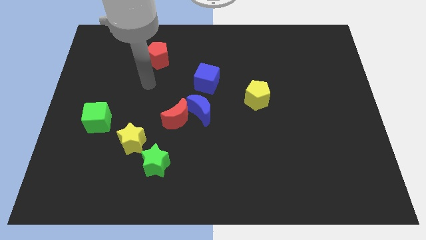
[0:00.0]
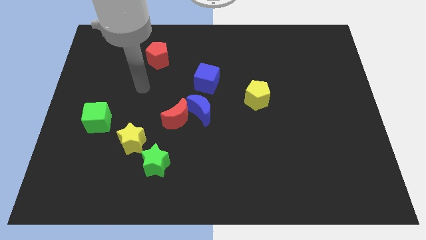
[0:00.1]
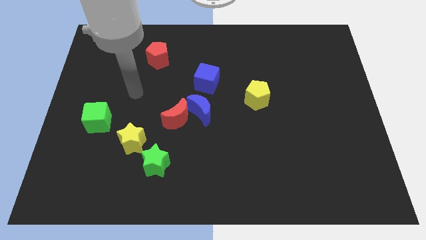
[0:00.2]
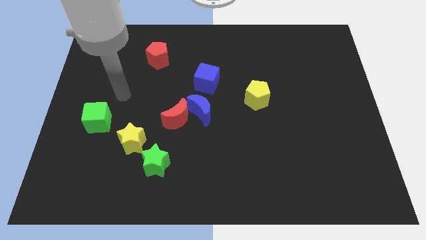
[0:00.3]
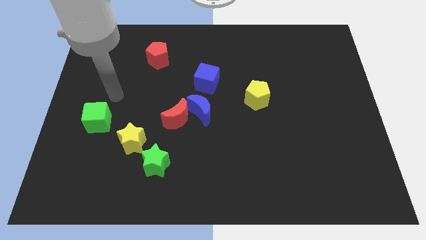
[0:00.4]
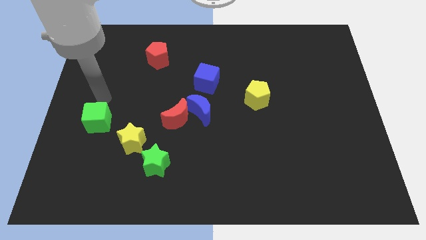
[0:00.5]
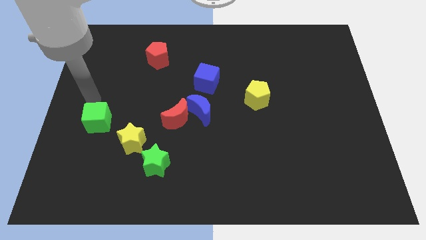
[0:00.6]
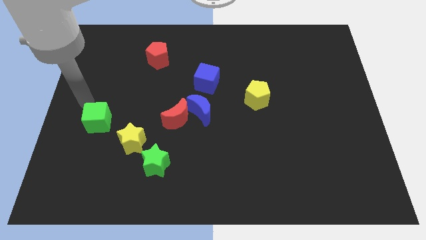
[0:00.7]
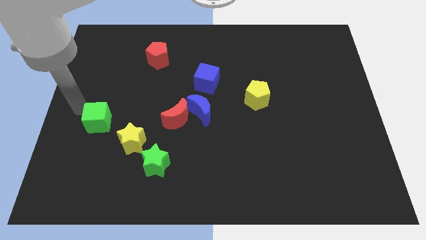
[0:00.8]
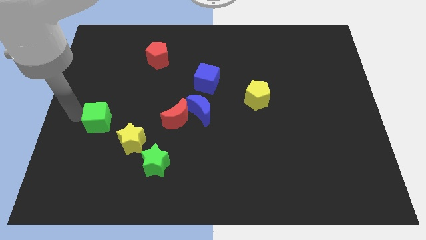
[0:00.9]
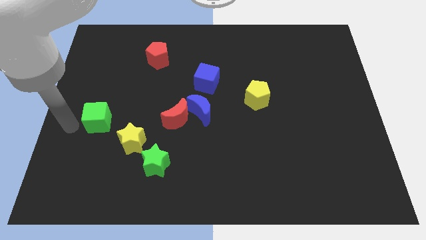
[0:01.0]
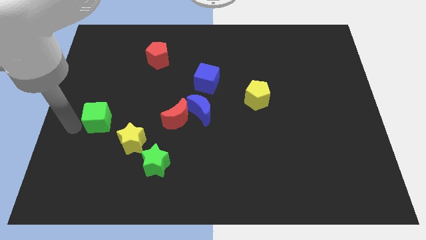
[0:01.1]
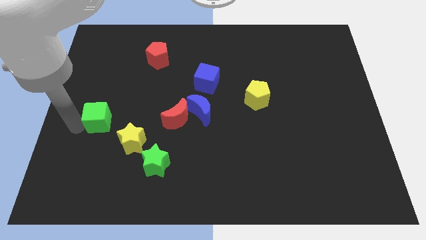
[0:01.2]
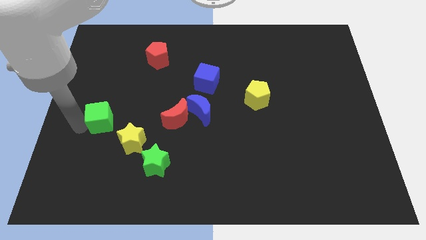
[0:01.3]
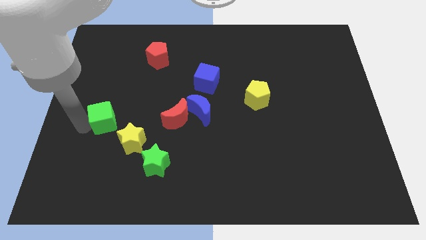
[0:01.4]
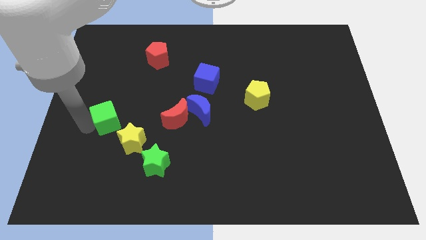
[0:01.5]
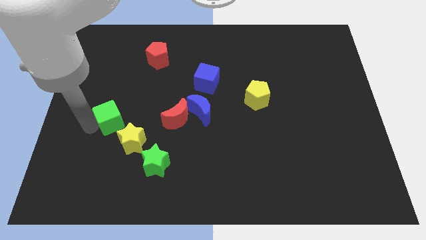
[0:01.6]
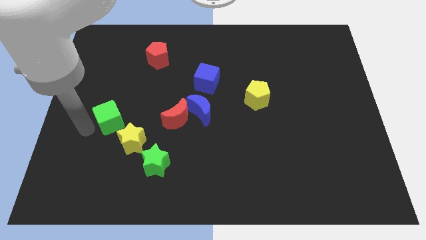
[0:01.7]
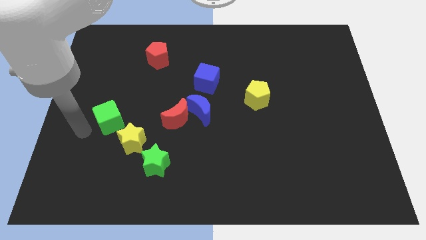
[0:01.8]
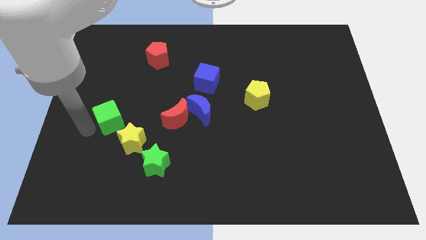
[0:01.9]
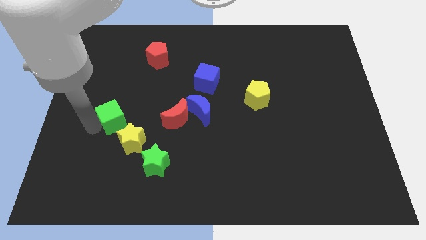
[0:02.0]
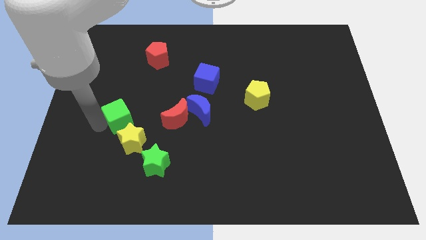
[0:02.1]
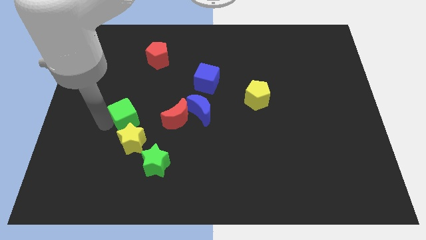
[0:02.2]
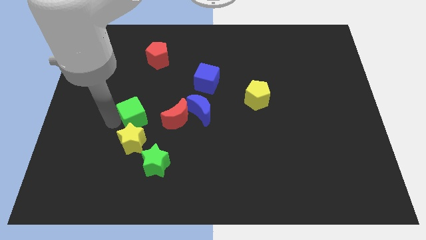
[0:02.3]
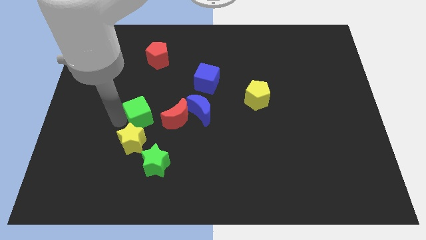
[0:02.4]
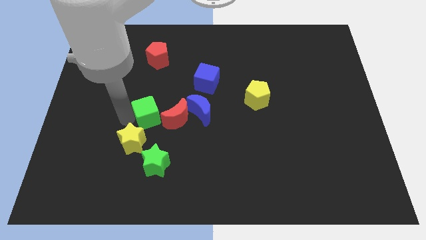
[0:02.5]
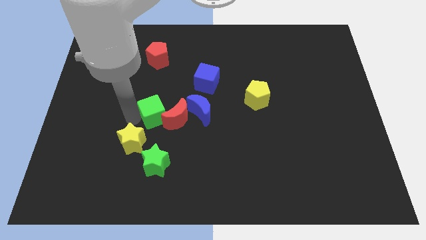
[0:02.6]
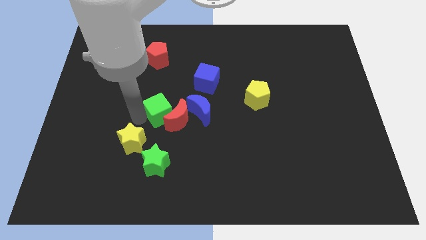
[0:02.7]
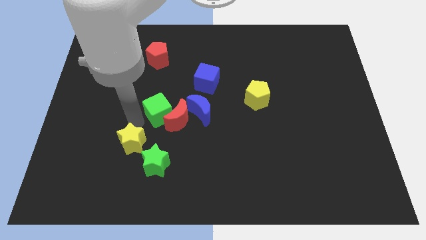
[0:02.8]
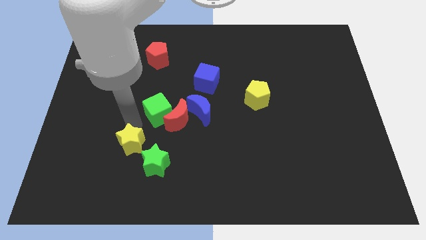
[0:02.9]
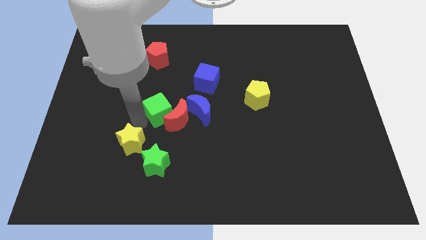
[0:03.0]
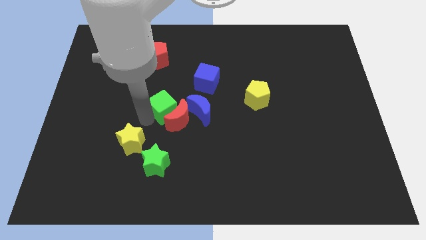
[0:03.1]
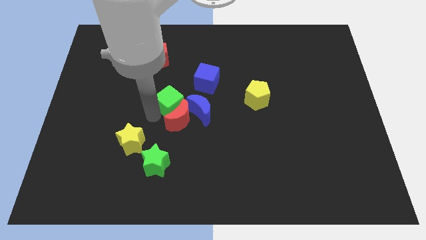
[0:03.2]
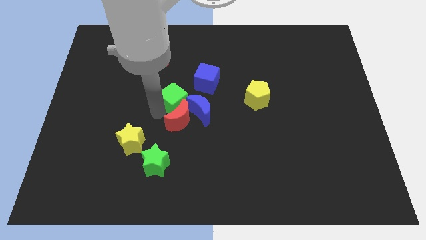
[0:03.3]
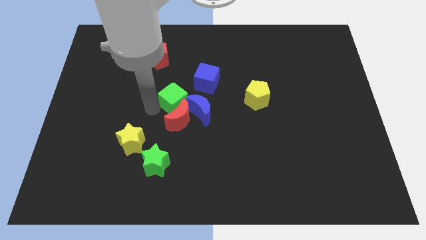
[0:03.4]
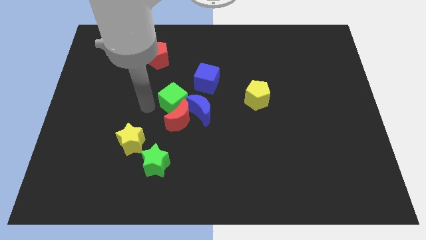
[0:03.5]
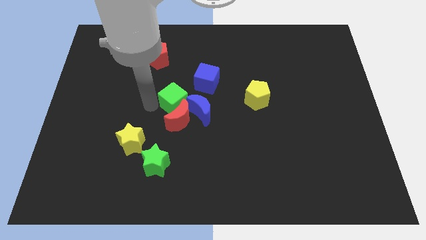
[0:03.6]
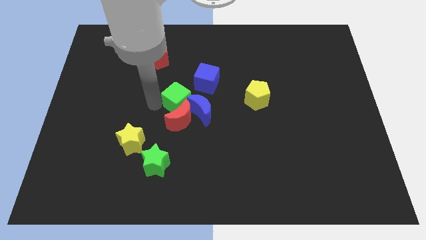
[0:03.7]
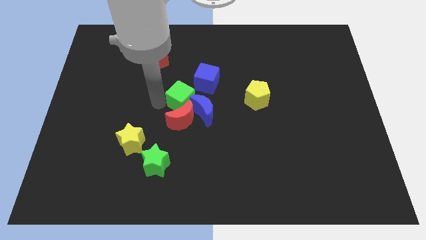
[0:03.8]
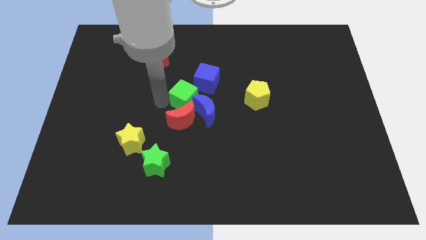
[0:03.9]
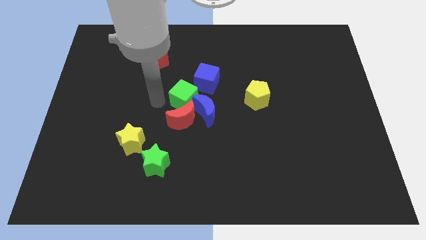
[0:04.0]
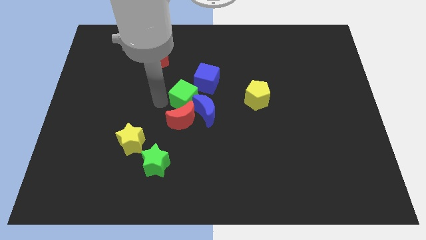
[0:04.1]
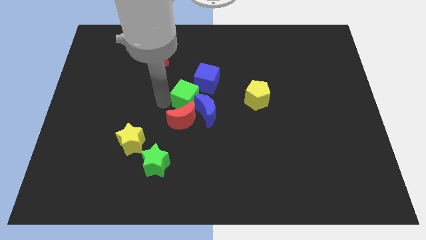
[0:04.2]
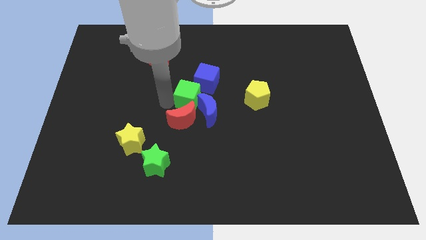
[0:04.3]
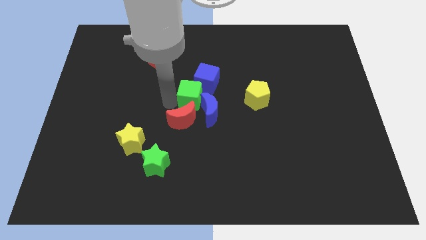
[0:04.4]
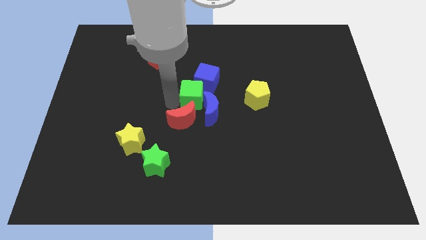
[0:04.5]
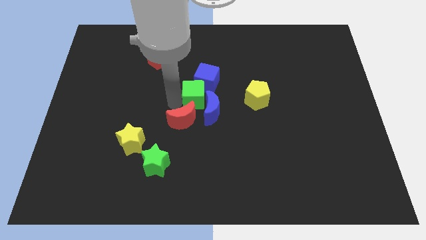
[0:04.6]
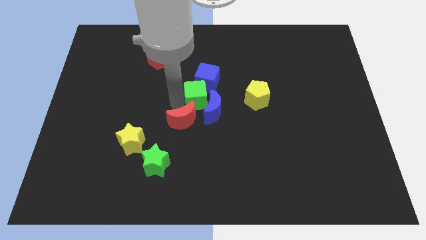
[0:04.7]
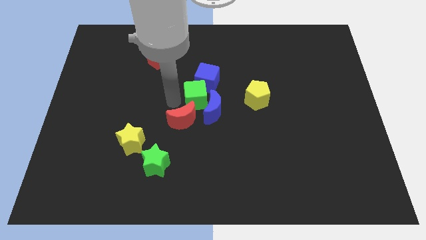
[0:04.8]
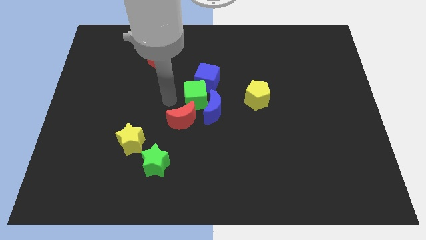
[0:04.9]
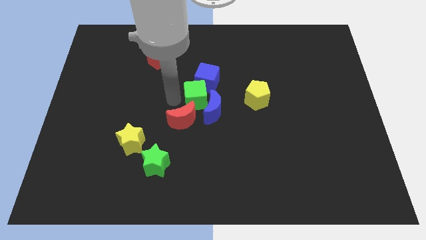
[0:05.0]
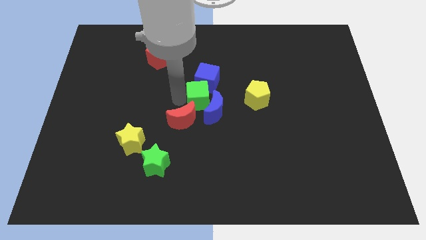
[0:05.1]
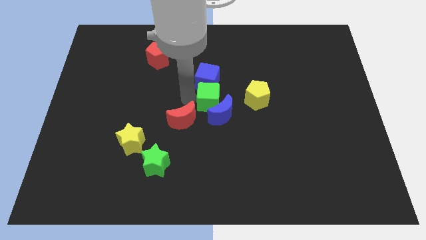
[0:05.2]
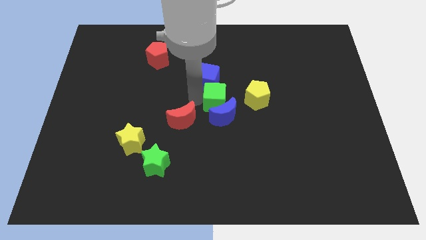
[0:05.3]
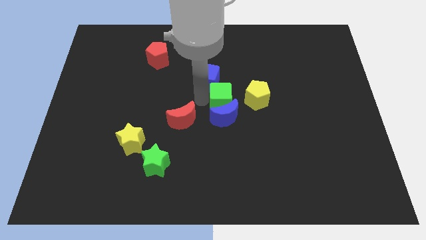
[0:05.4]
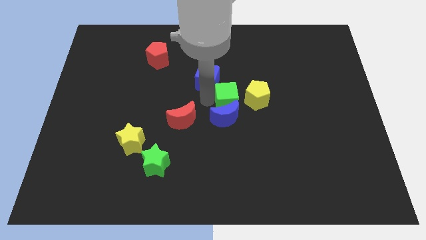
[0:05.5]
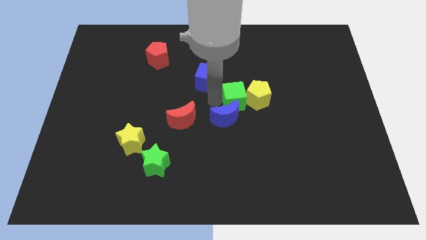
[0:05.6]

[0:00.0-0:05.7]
push the green cube towards the yellow pentagon

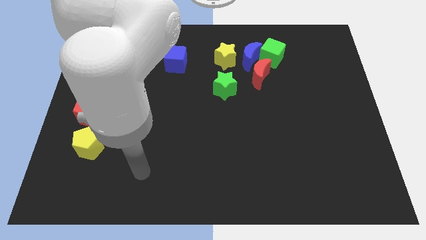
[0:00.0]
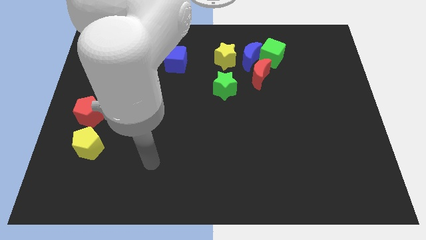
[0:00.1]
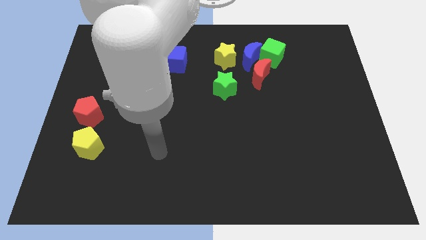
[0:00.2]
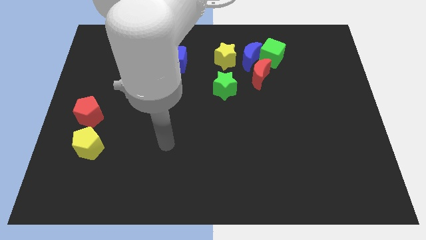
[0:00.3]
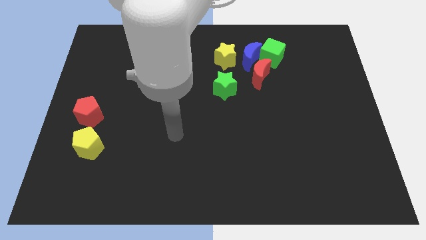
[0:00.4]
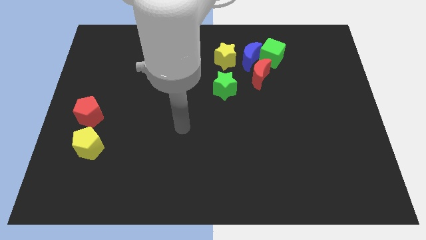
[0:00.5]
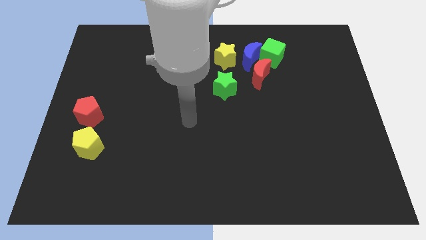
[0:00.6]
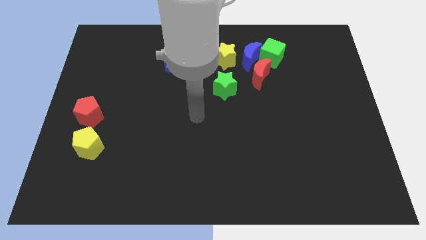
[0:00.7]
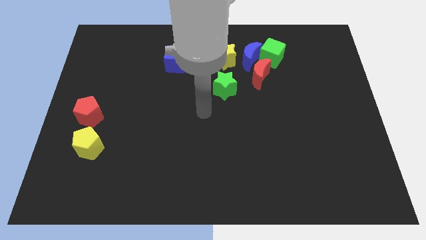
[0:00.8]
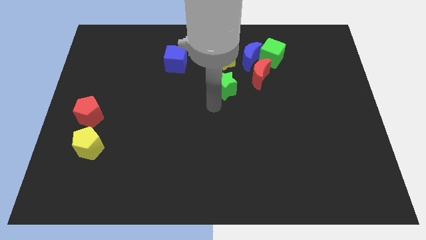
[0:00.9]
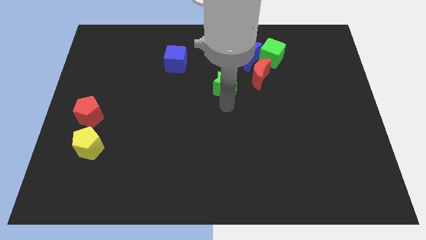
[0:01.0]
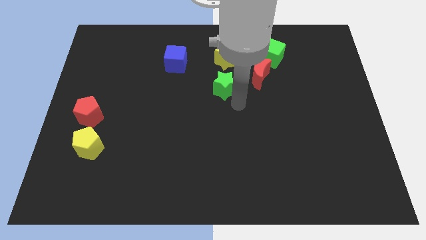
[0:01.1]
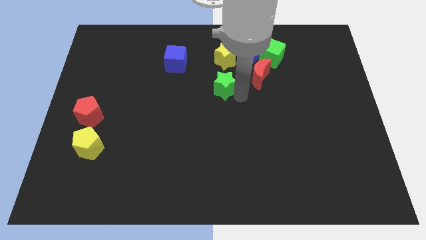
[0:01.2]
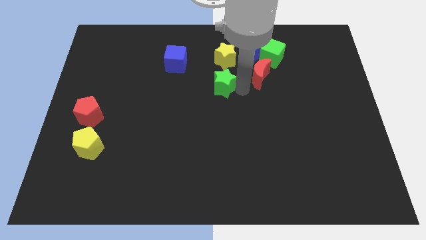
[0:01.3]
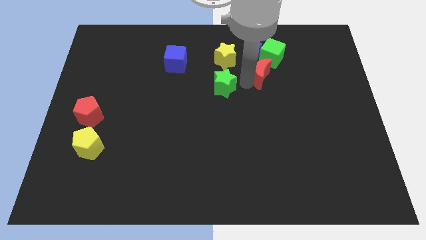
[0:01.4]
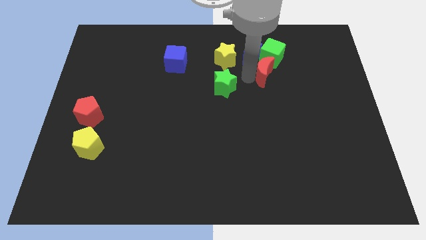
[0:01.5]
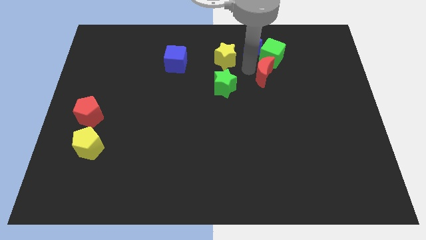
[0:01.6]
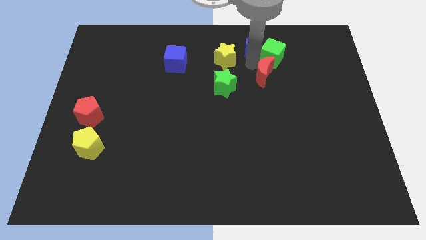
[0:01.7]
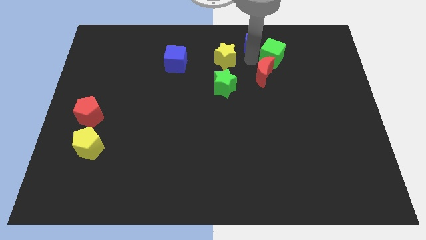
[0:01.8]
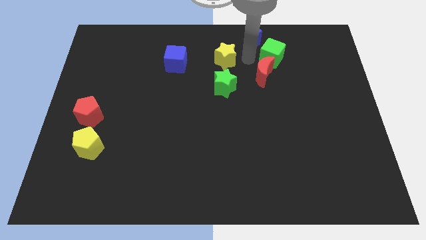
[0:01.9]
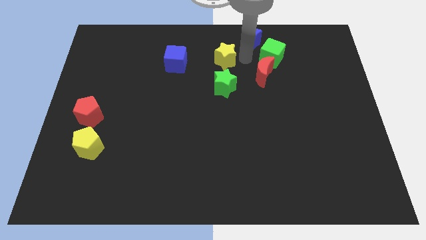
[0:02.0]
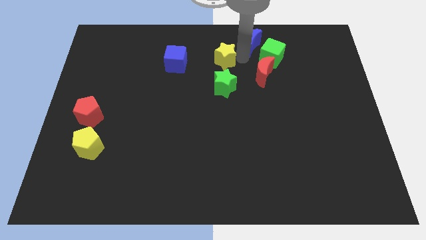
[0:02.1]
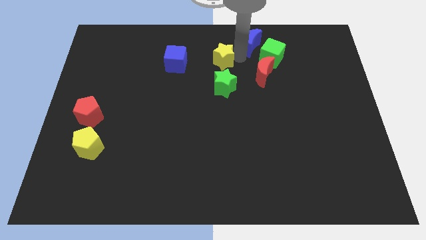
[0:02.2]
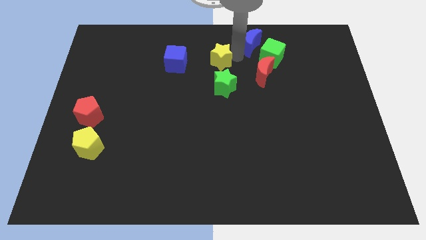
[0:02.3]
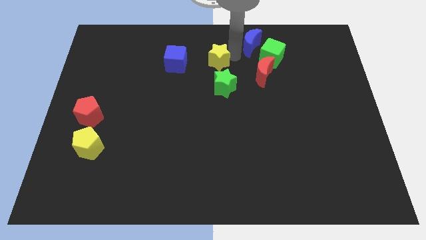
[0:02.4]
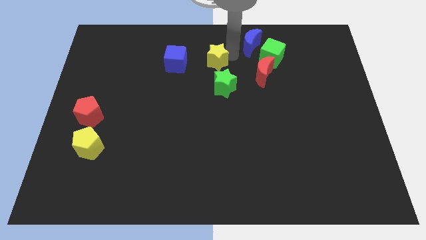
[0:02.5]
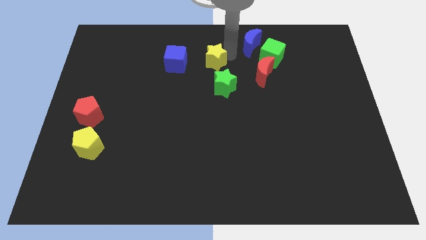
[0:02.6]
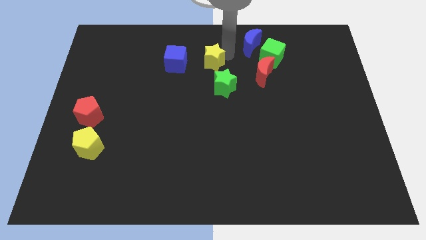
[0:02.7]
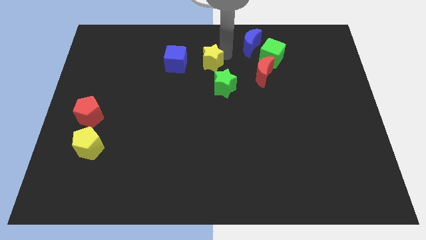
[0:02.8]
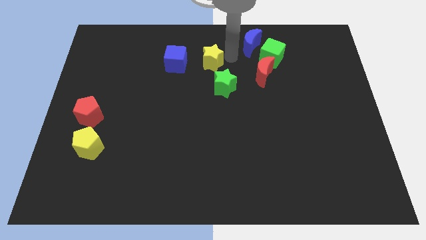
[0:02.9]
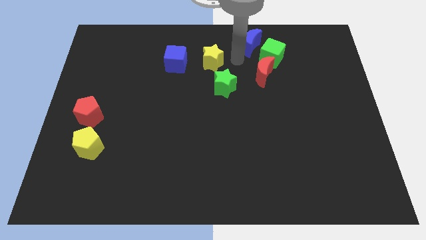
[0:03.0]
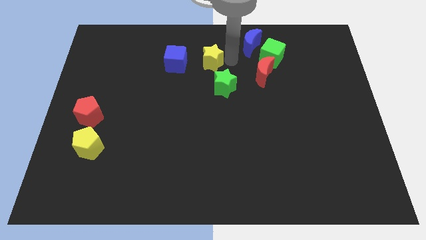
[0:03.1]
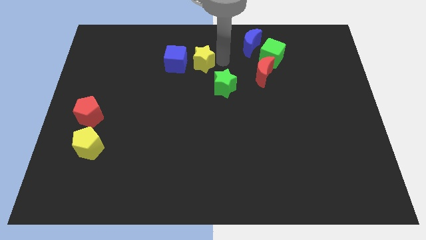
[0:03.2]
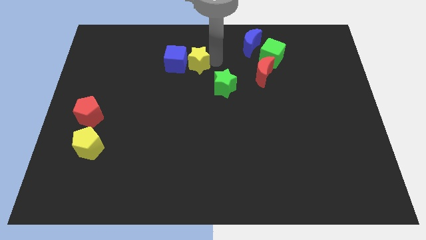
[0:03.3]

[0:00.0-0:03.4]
push the yellow star to the blue cube
